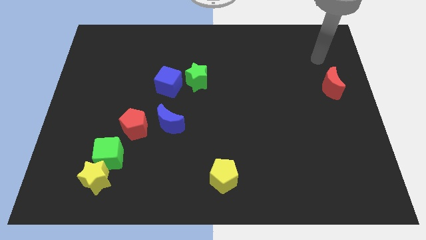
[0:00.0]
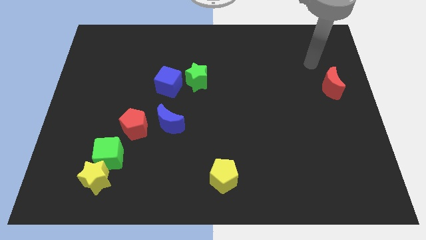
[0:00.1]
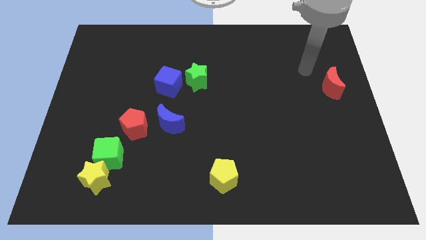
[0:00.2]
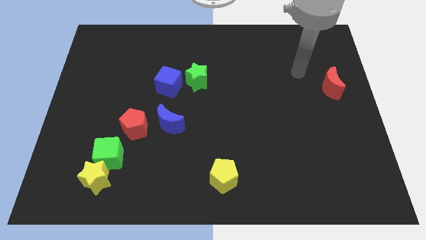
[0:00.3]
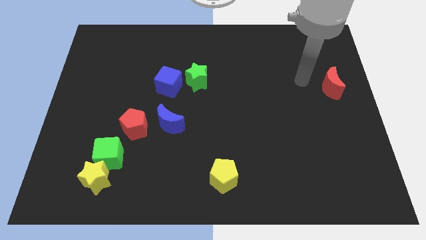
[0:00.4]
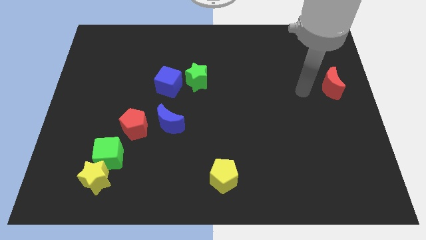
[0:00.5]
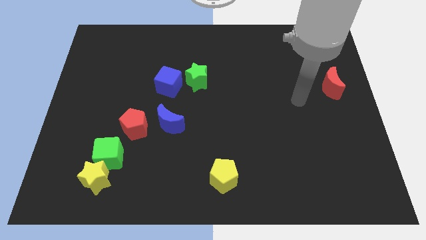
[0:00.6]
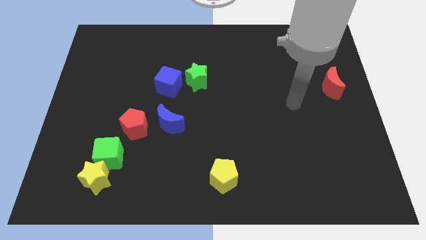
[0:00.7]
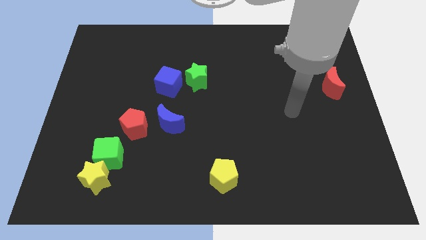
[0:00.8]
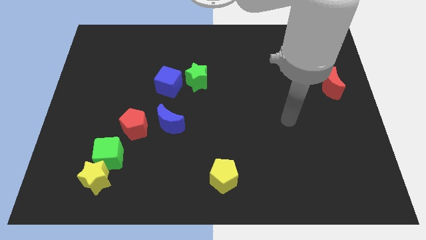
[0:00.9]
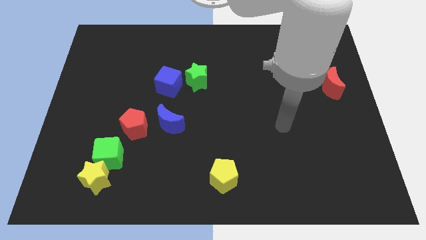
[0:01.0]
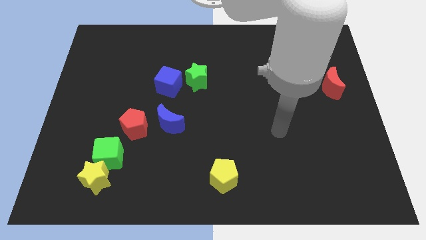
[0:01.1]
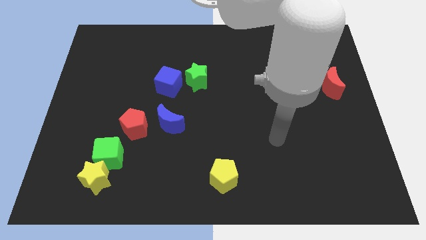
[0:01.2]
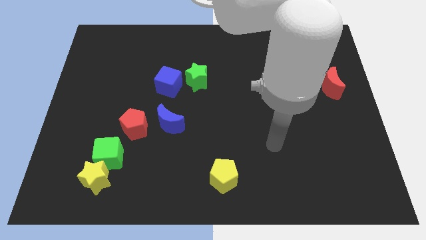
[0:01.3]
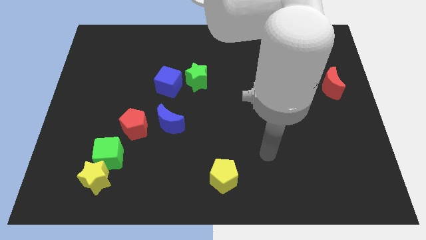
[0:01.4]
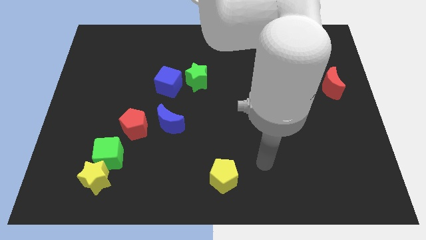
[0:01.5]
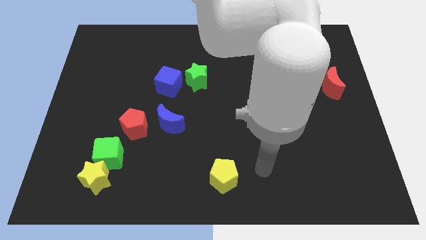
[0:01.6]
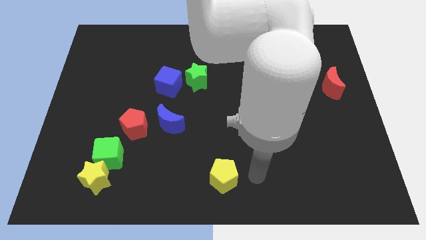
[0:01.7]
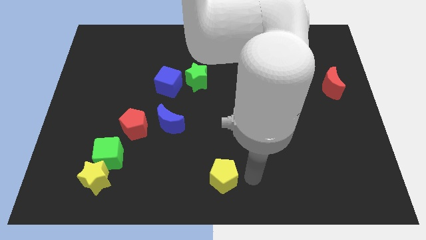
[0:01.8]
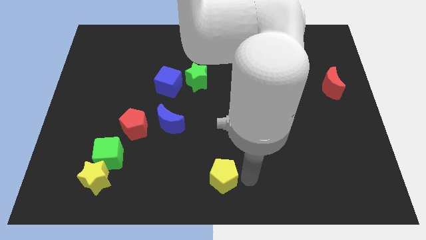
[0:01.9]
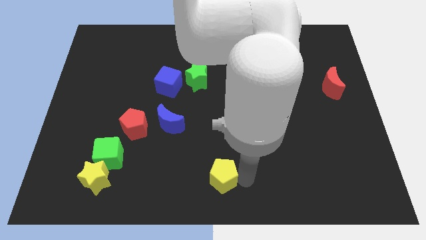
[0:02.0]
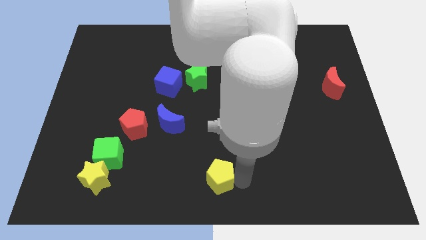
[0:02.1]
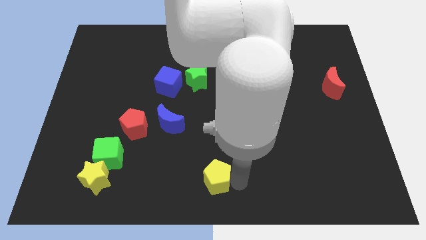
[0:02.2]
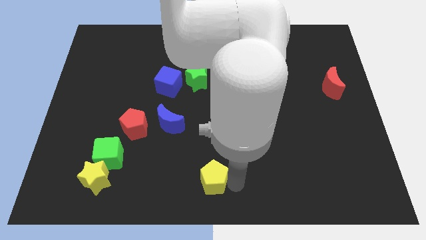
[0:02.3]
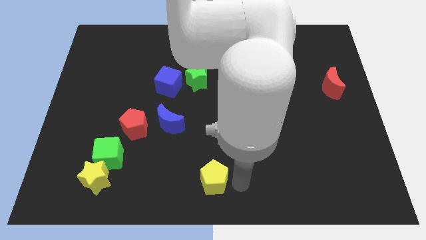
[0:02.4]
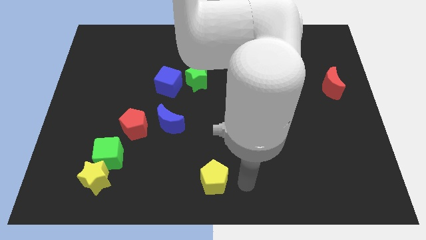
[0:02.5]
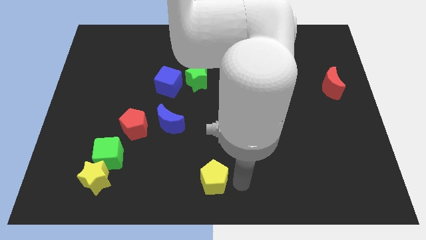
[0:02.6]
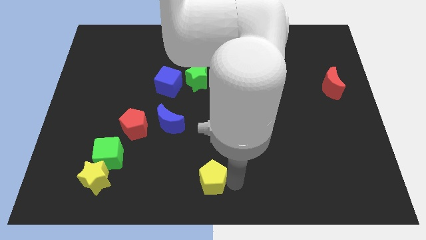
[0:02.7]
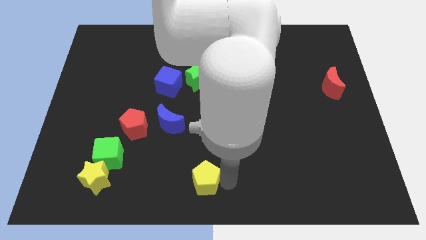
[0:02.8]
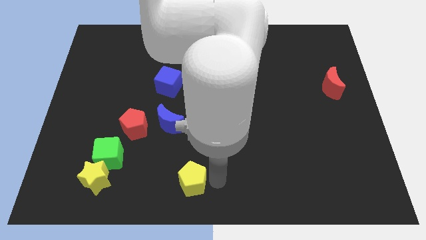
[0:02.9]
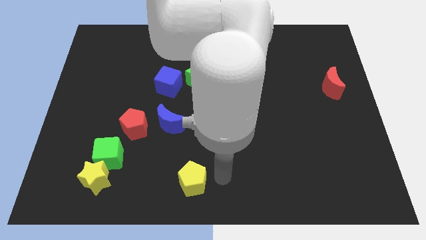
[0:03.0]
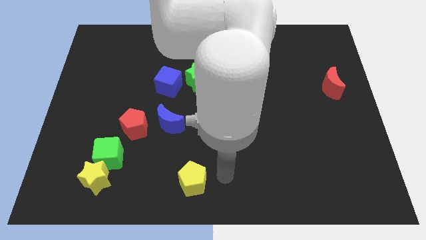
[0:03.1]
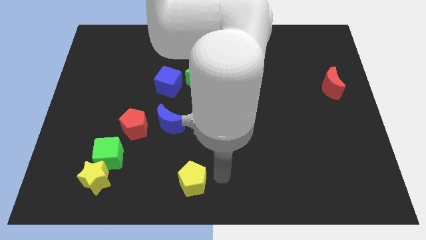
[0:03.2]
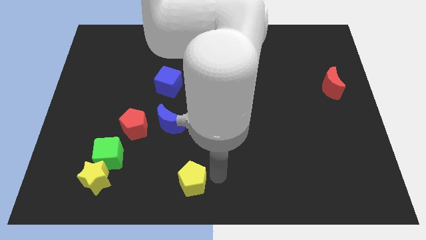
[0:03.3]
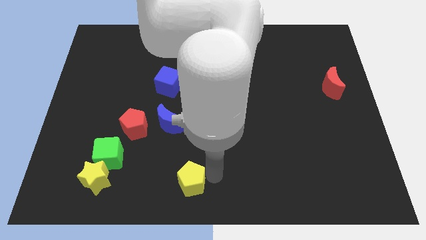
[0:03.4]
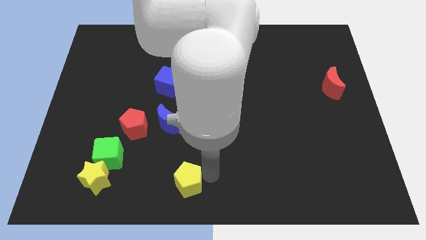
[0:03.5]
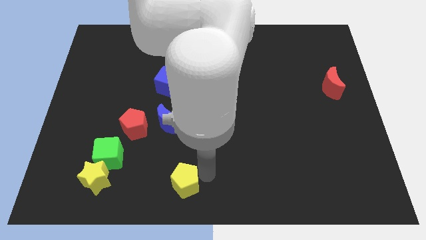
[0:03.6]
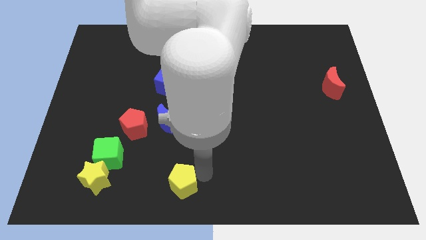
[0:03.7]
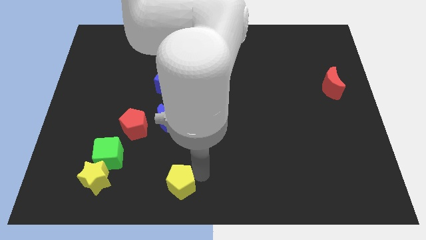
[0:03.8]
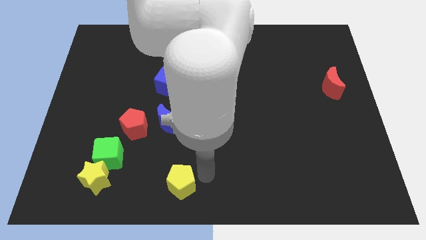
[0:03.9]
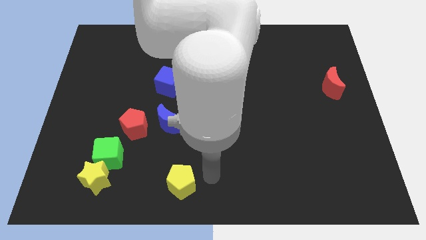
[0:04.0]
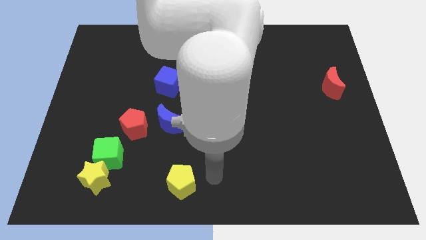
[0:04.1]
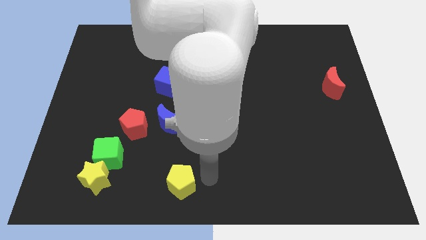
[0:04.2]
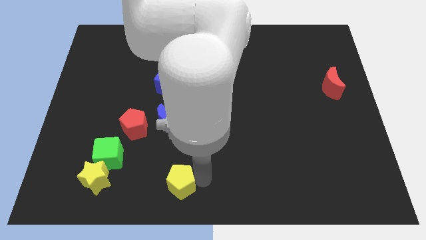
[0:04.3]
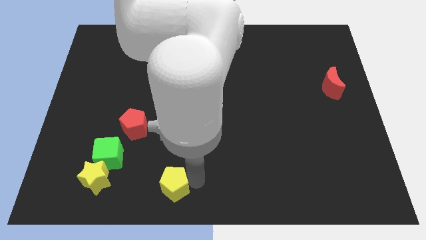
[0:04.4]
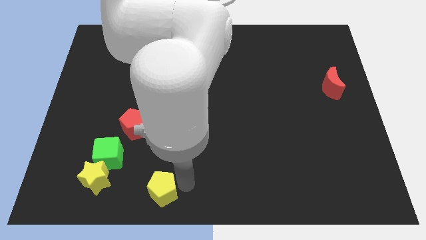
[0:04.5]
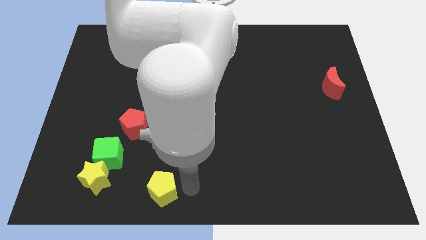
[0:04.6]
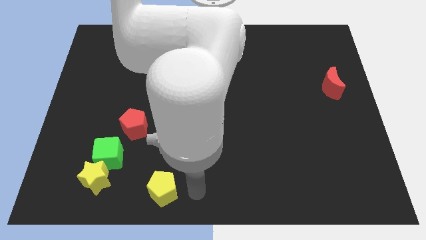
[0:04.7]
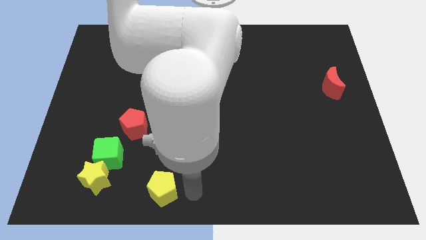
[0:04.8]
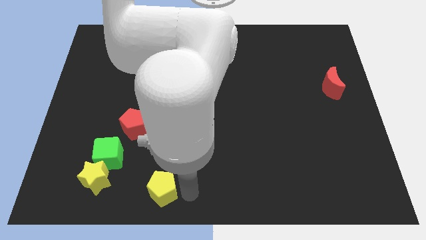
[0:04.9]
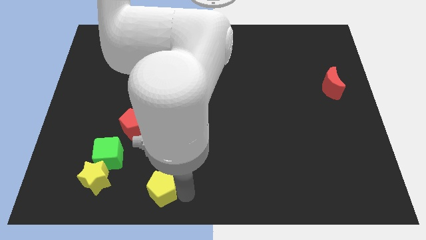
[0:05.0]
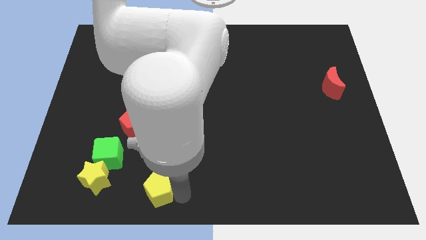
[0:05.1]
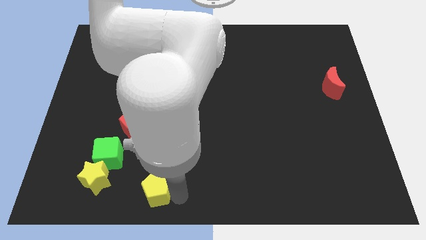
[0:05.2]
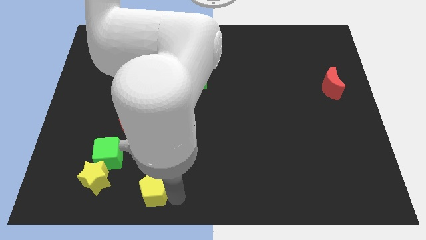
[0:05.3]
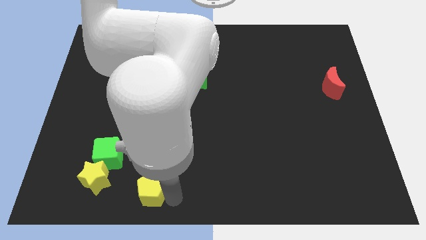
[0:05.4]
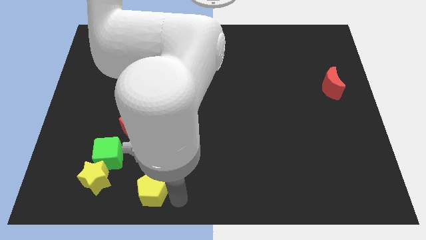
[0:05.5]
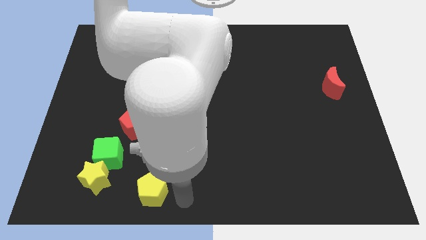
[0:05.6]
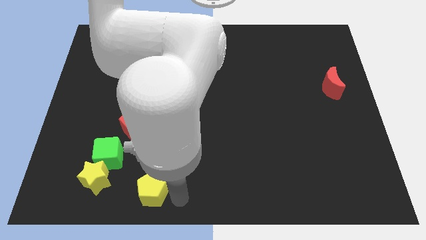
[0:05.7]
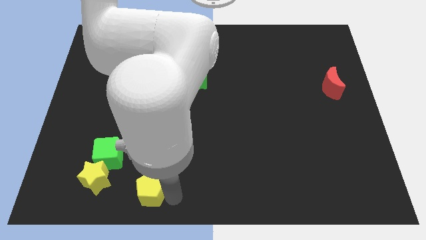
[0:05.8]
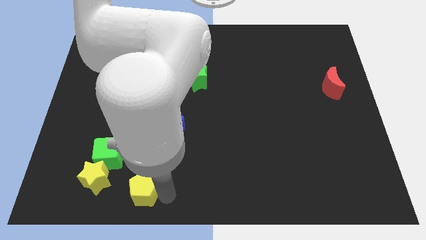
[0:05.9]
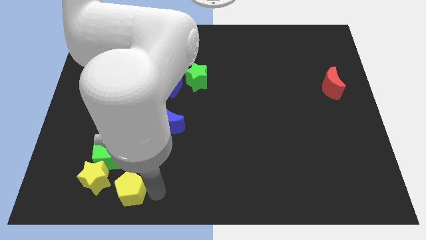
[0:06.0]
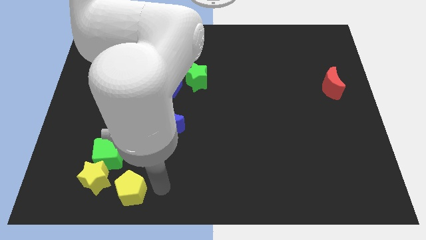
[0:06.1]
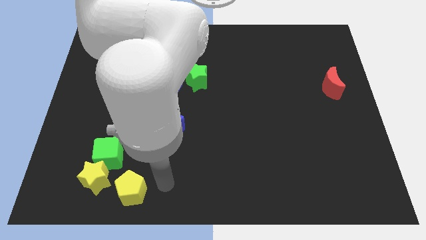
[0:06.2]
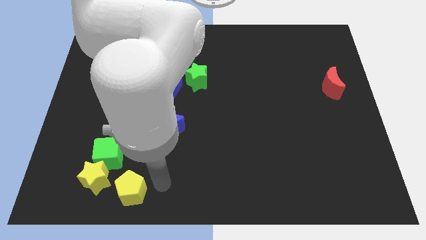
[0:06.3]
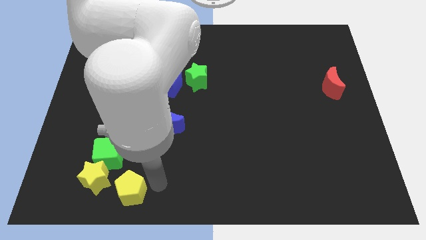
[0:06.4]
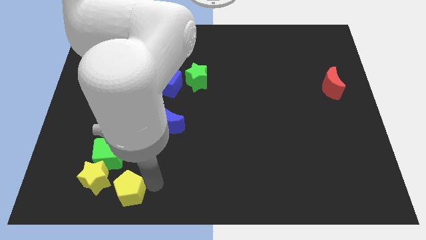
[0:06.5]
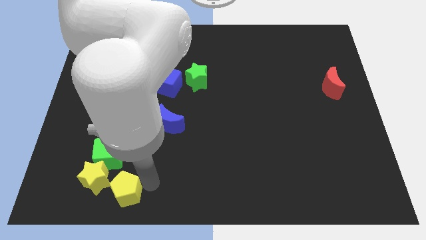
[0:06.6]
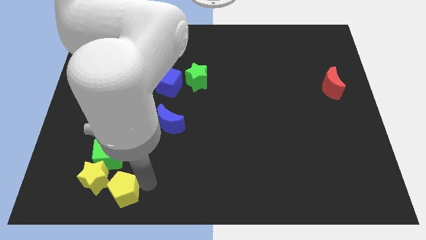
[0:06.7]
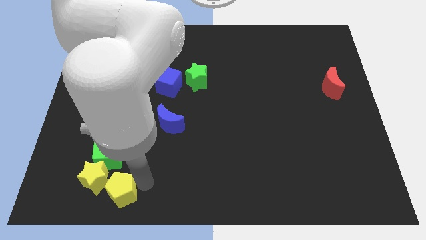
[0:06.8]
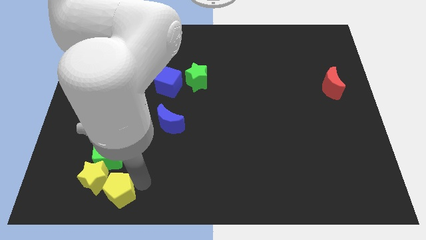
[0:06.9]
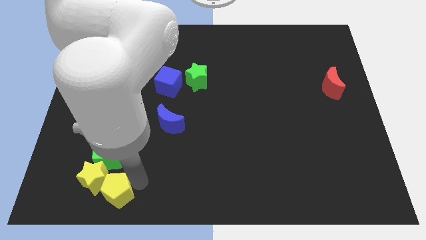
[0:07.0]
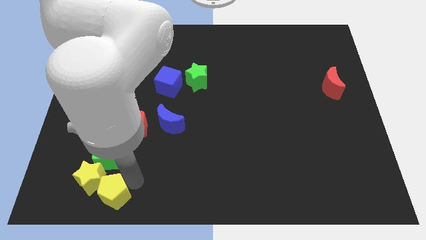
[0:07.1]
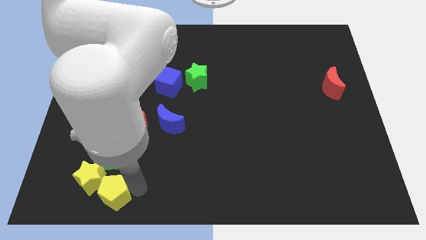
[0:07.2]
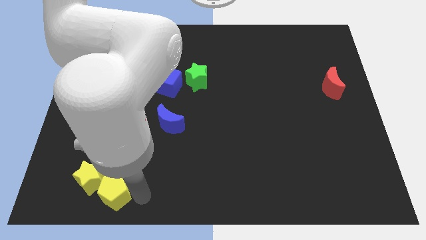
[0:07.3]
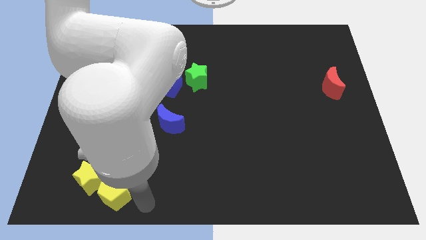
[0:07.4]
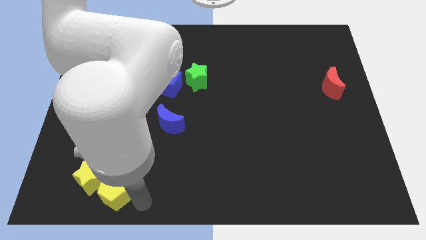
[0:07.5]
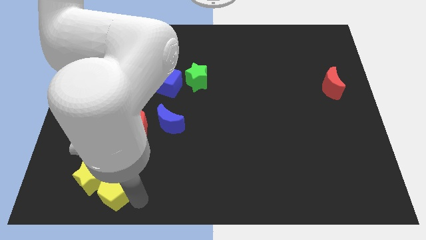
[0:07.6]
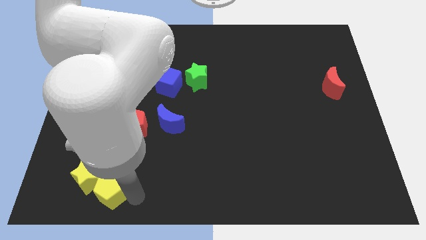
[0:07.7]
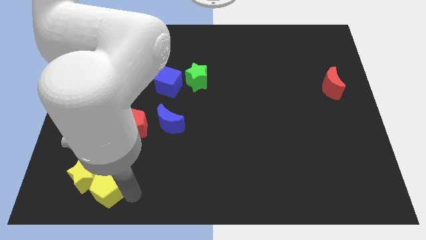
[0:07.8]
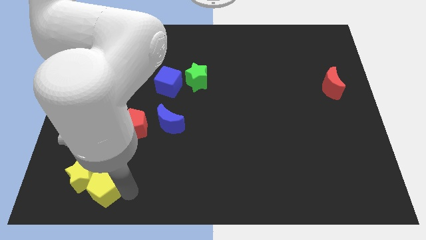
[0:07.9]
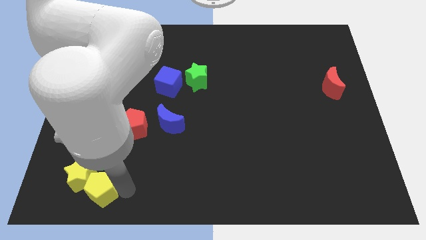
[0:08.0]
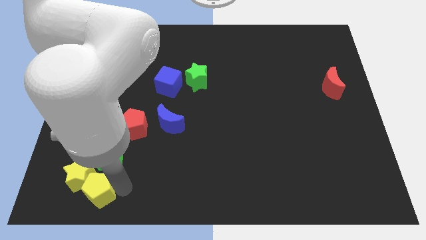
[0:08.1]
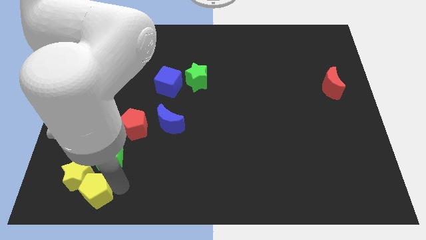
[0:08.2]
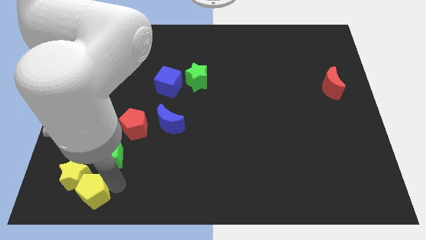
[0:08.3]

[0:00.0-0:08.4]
push the yellow pentagon diagonally down and to the left of the green cube
